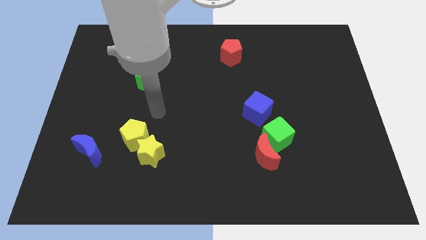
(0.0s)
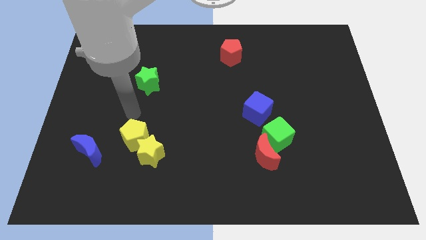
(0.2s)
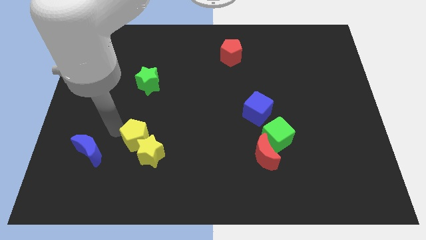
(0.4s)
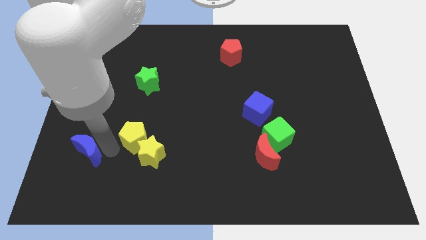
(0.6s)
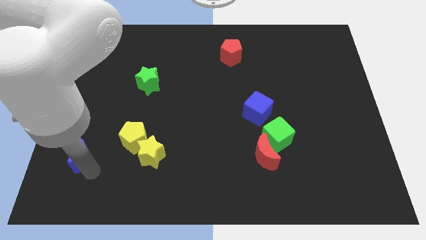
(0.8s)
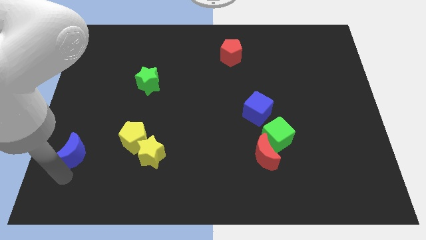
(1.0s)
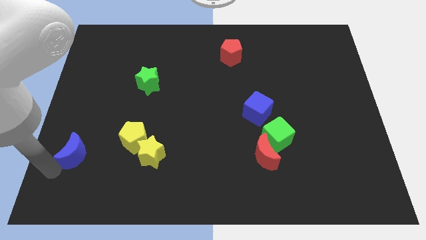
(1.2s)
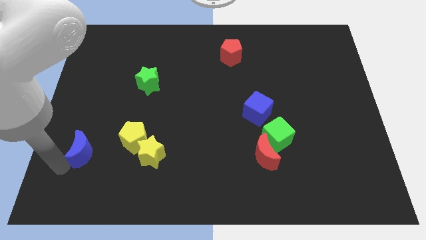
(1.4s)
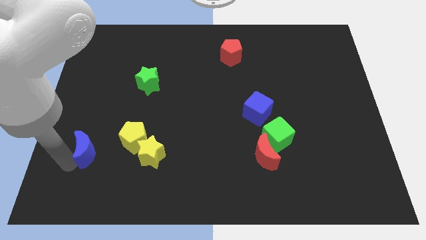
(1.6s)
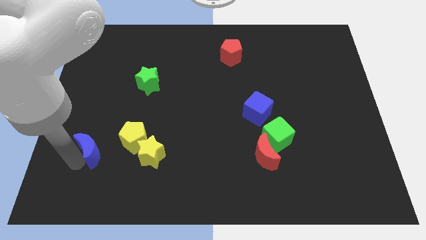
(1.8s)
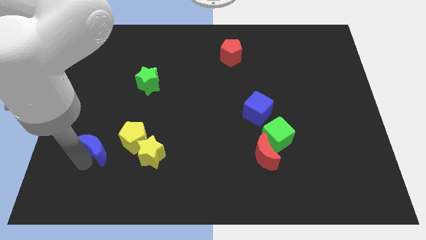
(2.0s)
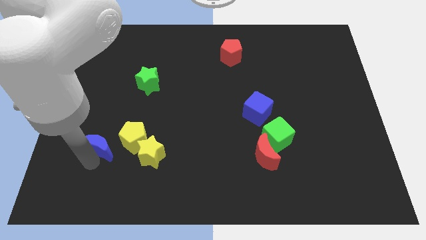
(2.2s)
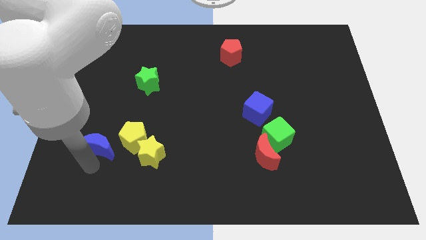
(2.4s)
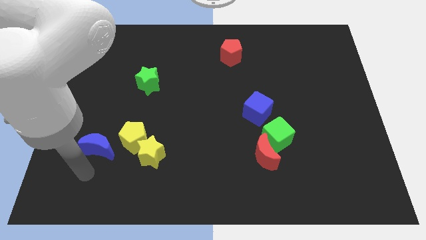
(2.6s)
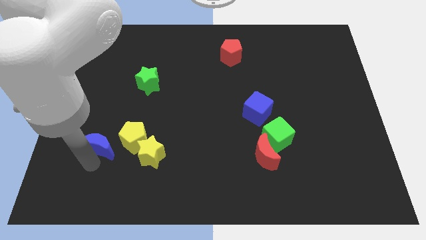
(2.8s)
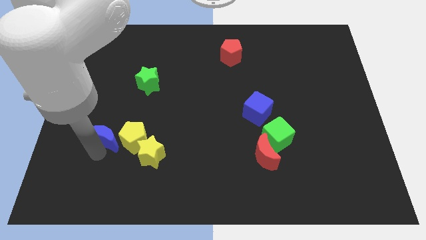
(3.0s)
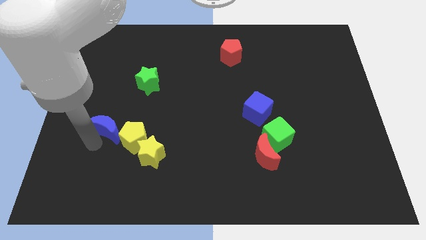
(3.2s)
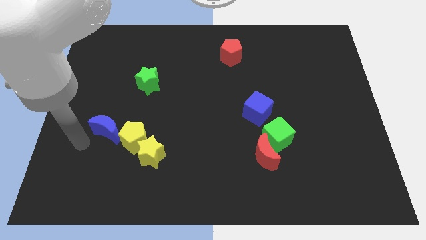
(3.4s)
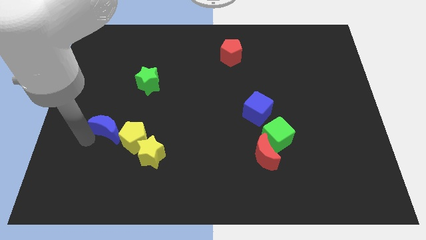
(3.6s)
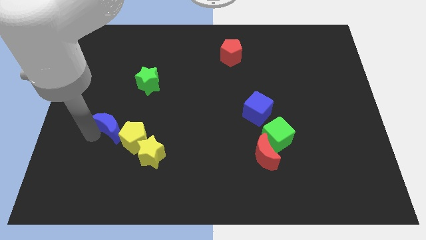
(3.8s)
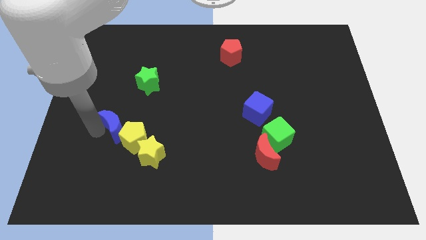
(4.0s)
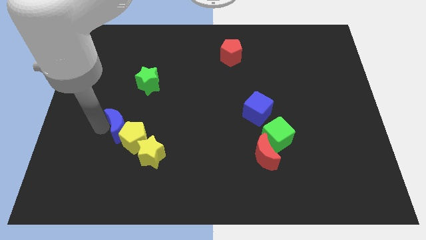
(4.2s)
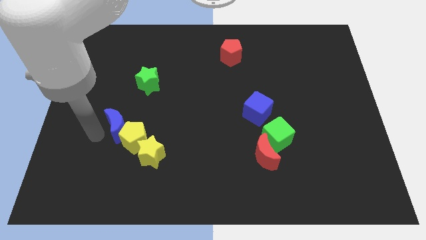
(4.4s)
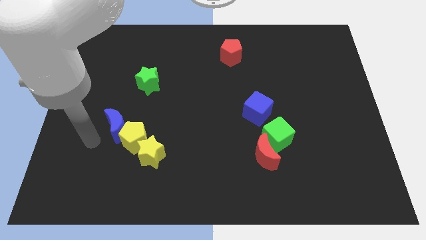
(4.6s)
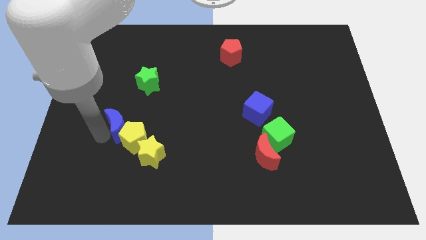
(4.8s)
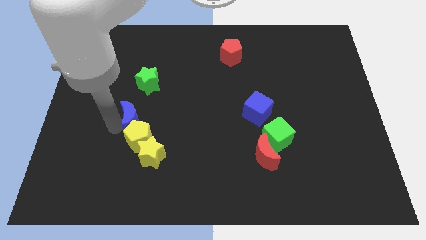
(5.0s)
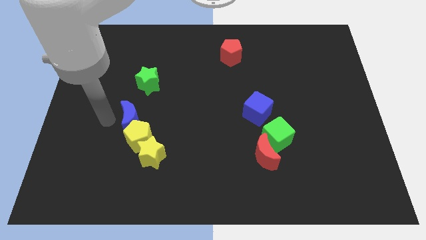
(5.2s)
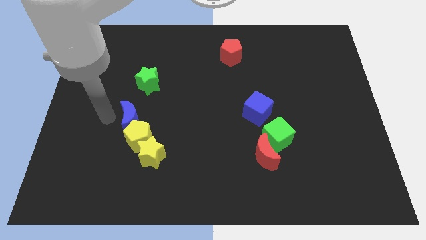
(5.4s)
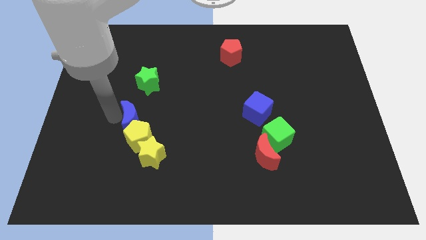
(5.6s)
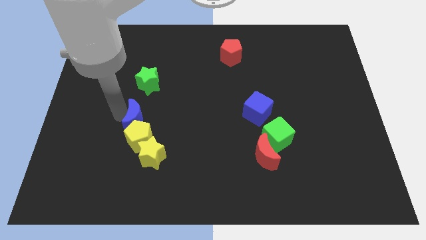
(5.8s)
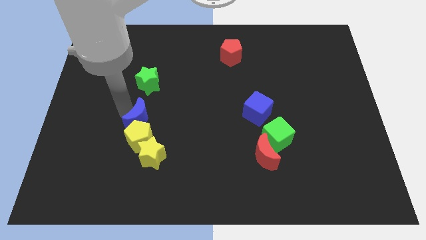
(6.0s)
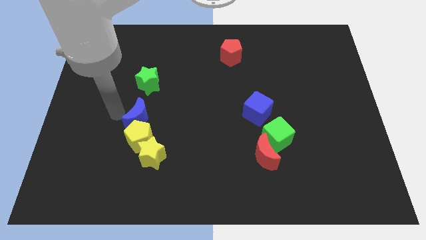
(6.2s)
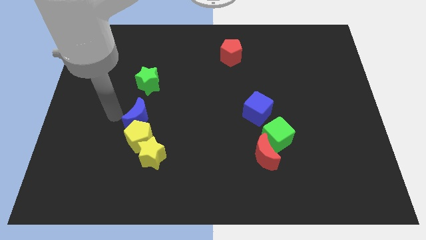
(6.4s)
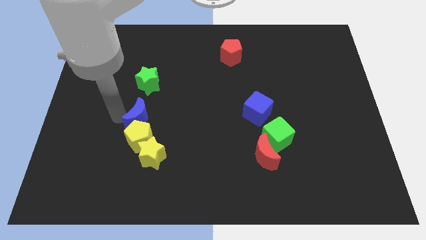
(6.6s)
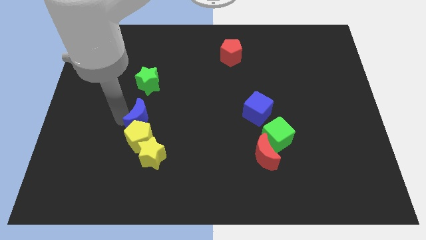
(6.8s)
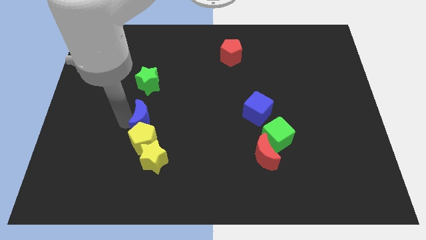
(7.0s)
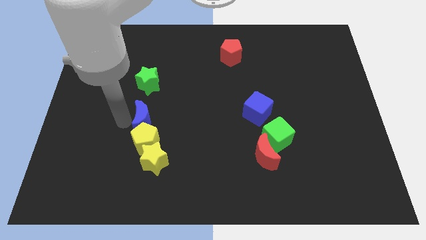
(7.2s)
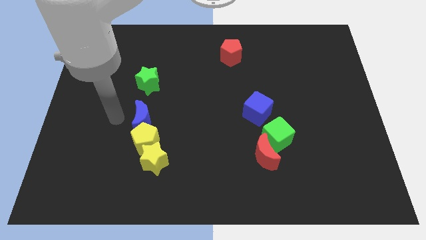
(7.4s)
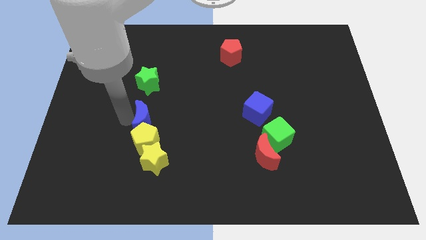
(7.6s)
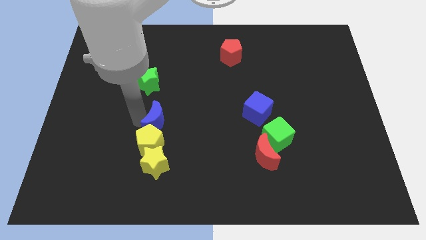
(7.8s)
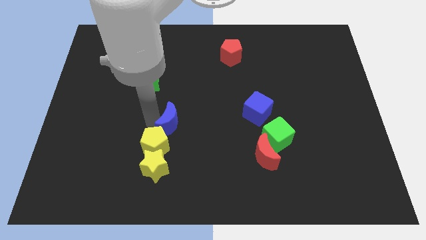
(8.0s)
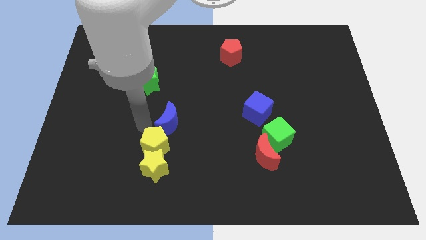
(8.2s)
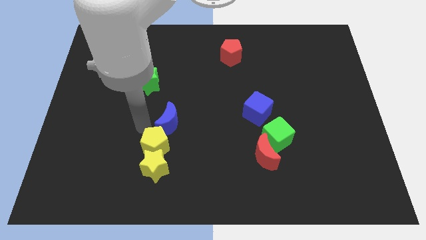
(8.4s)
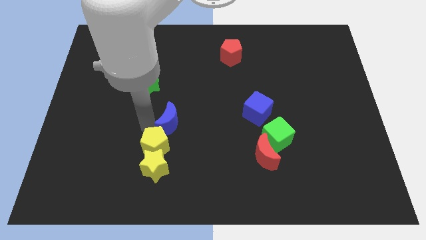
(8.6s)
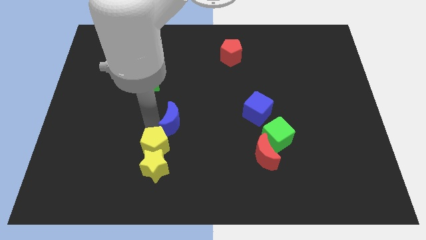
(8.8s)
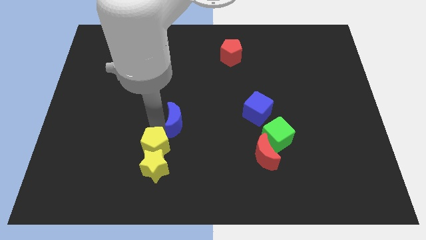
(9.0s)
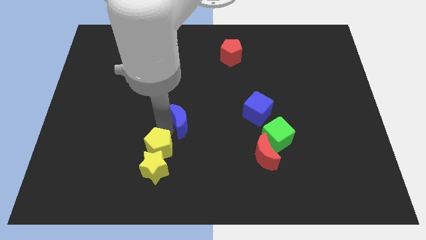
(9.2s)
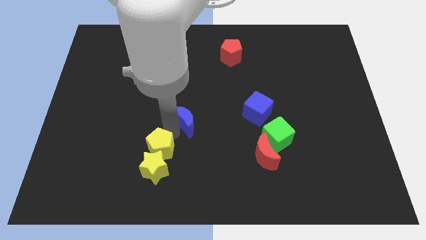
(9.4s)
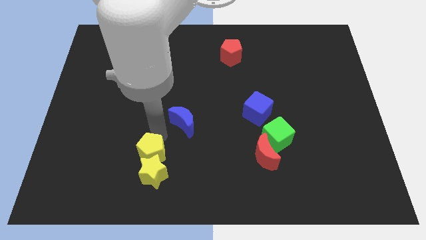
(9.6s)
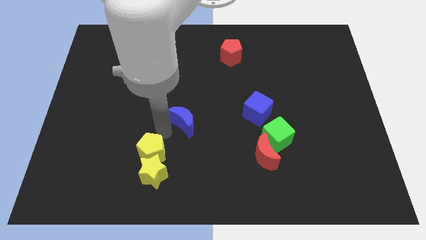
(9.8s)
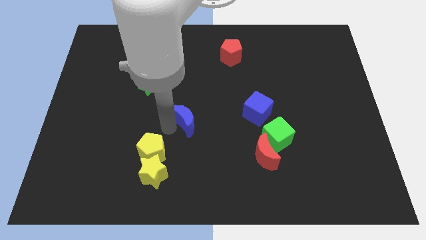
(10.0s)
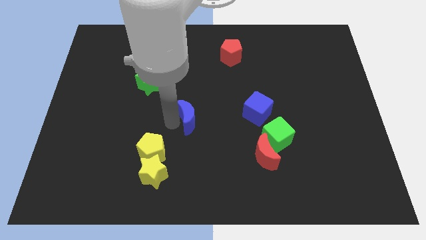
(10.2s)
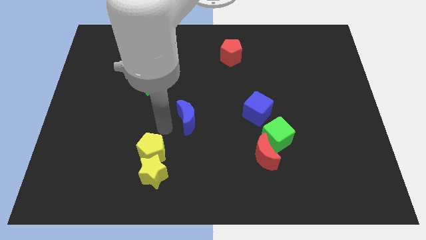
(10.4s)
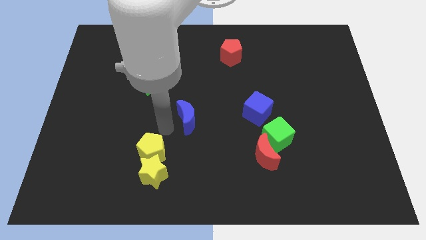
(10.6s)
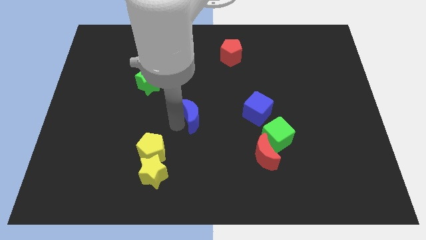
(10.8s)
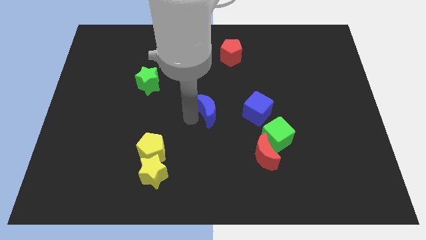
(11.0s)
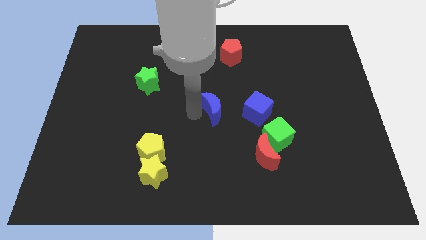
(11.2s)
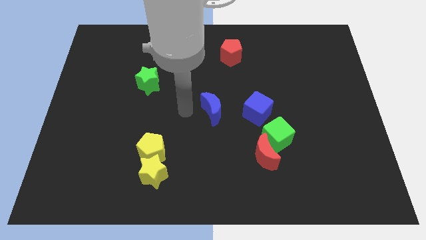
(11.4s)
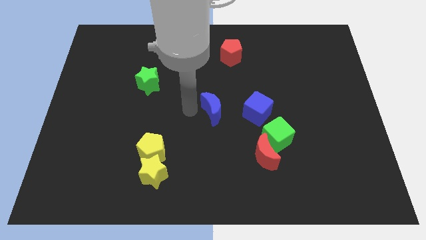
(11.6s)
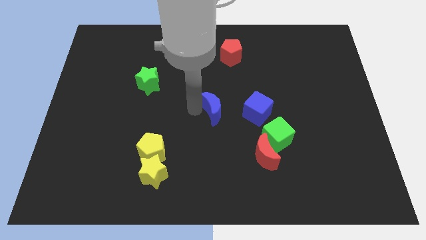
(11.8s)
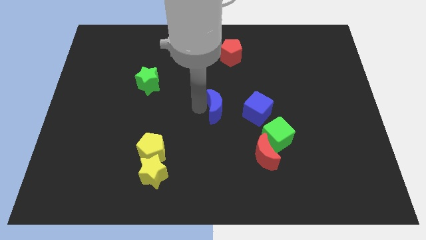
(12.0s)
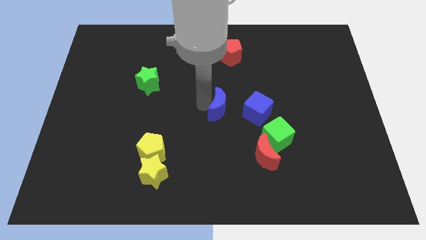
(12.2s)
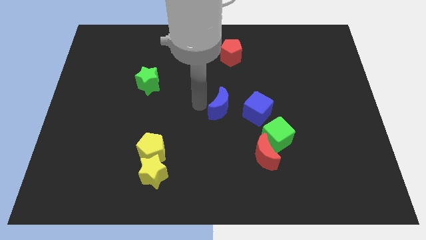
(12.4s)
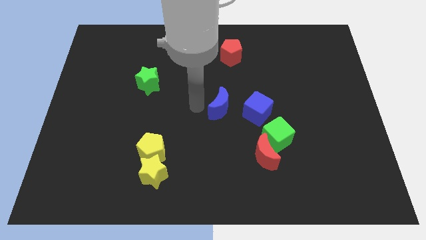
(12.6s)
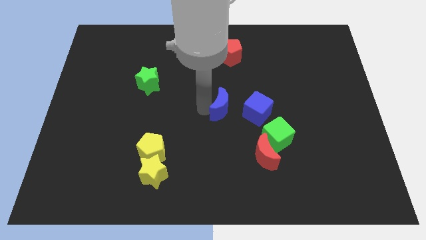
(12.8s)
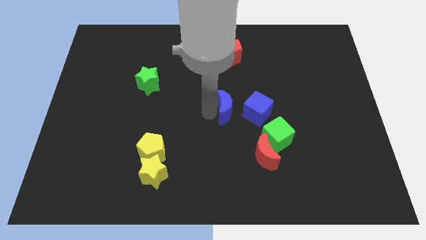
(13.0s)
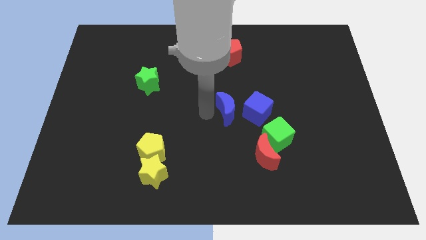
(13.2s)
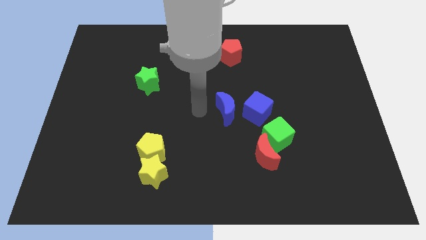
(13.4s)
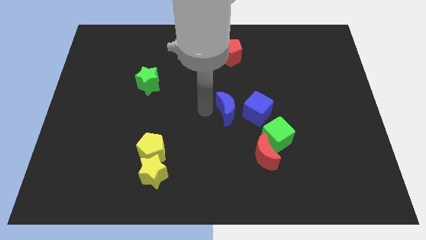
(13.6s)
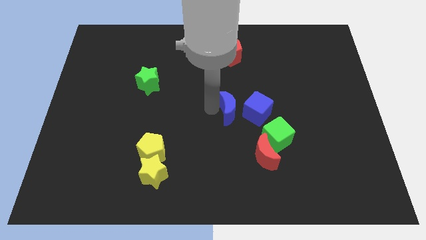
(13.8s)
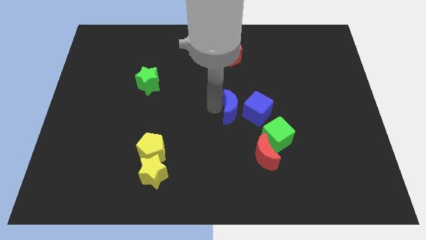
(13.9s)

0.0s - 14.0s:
put the blue moon towards the blue cube

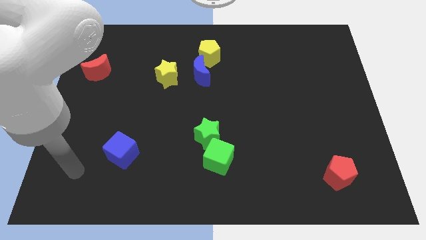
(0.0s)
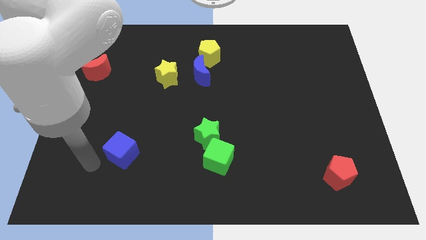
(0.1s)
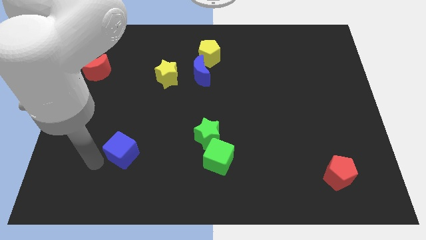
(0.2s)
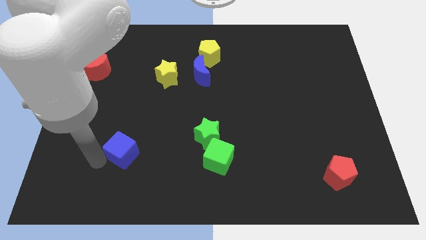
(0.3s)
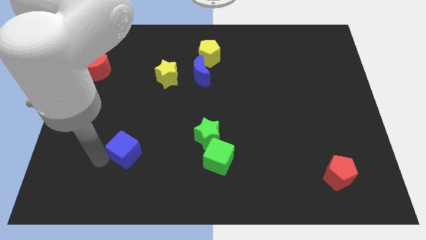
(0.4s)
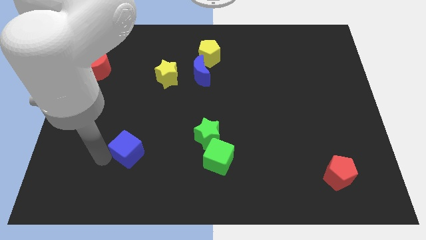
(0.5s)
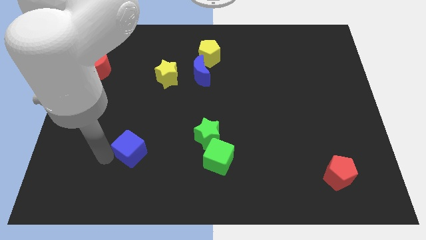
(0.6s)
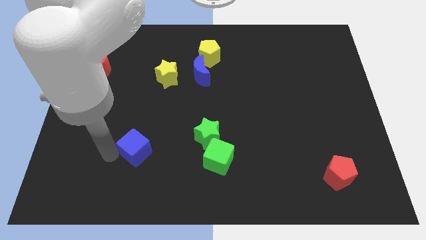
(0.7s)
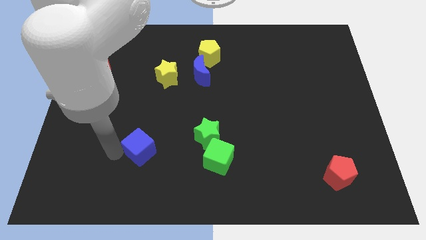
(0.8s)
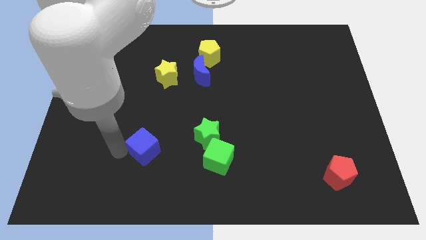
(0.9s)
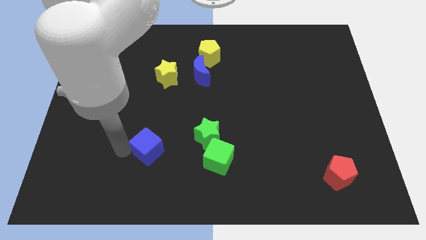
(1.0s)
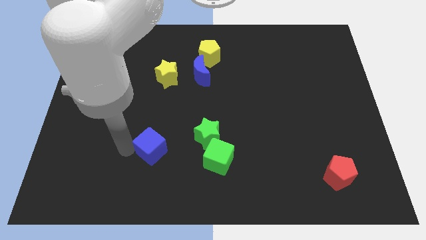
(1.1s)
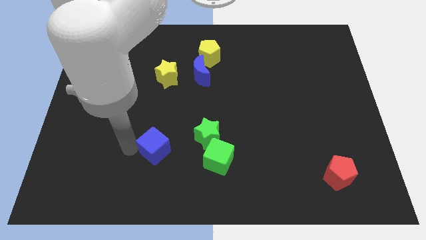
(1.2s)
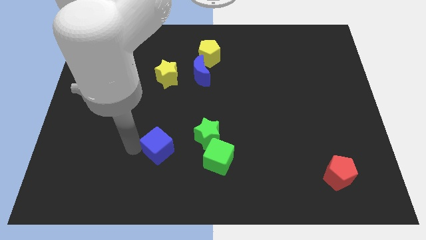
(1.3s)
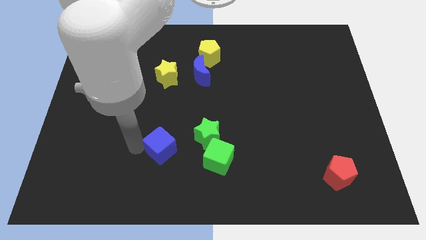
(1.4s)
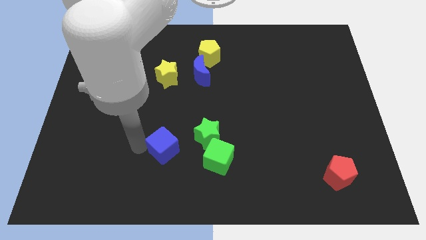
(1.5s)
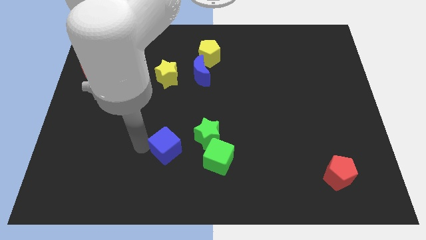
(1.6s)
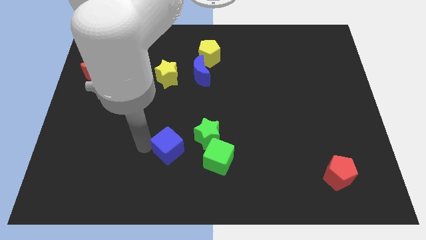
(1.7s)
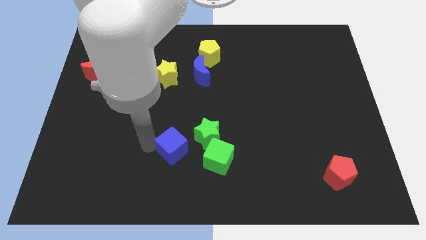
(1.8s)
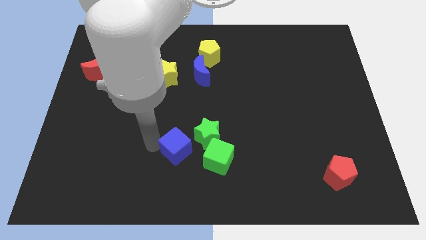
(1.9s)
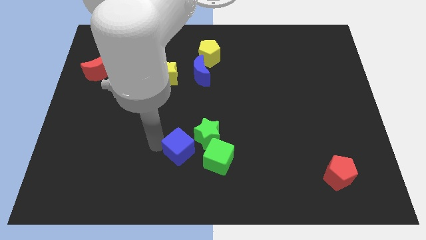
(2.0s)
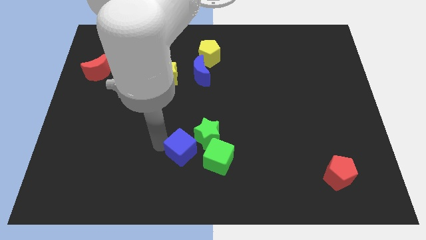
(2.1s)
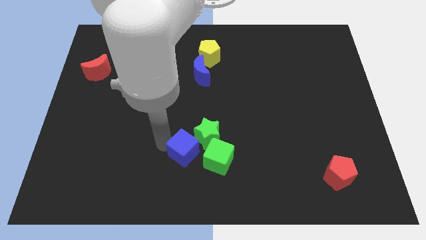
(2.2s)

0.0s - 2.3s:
move the blue cube close to the green star
